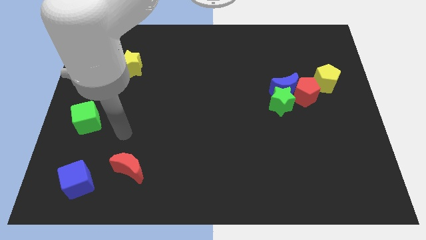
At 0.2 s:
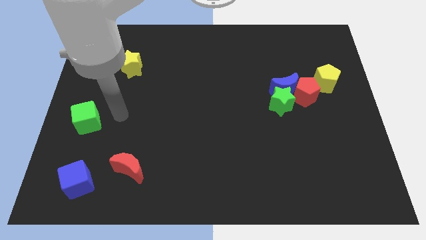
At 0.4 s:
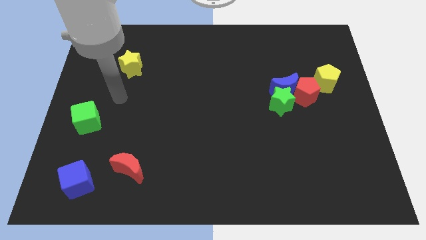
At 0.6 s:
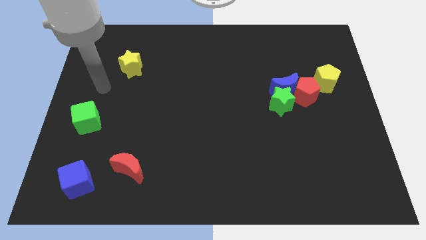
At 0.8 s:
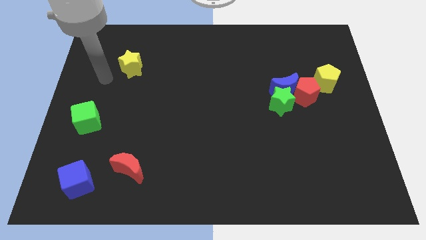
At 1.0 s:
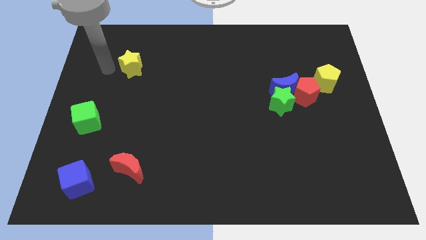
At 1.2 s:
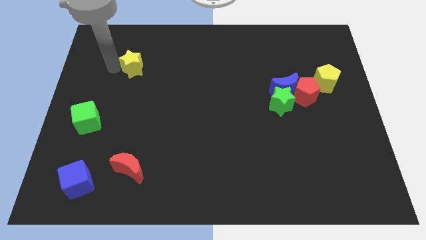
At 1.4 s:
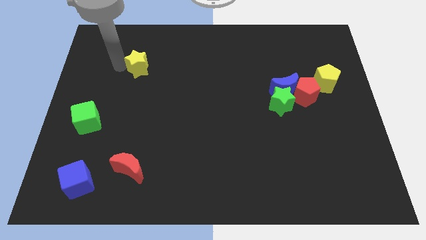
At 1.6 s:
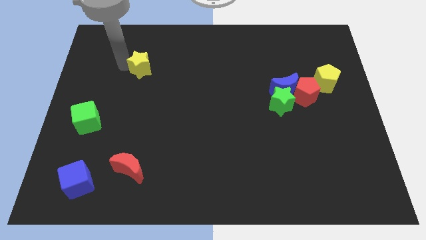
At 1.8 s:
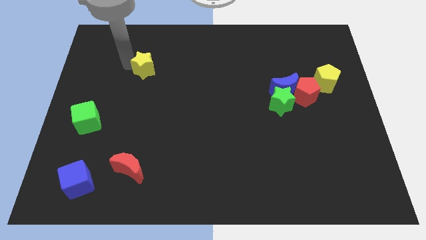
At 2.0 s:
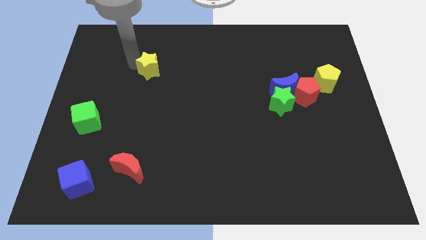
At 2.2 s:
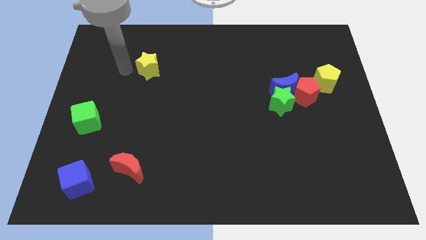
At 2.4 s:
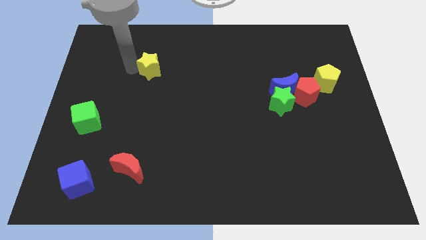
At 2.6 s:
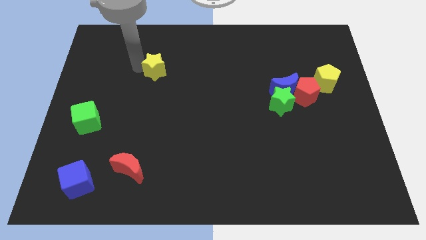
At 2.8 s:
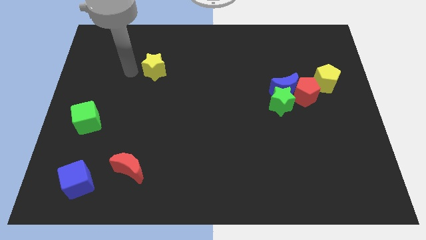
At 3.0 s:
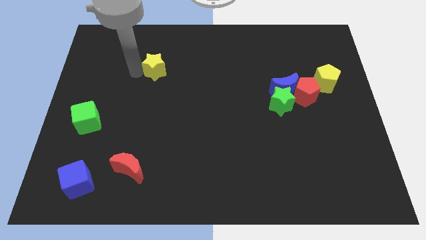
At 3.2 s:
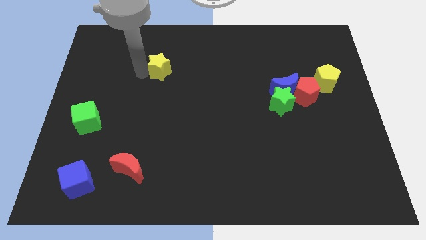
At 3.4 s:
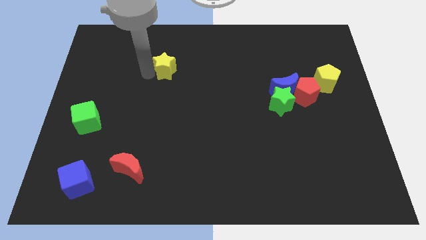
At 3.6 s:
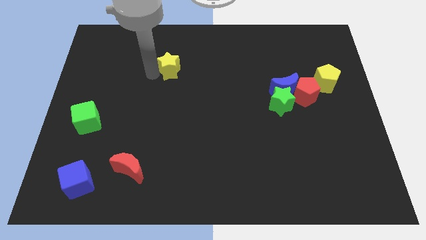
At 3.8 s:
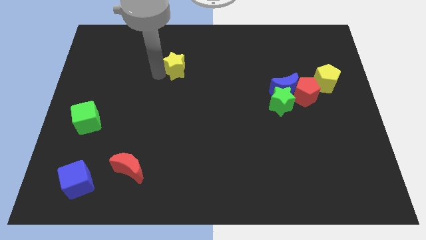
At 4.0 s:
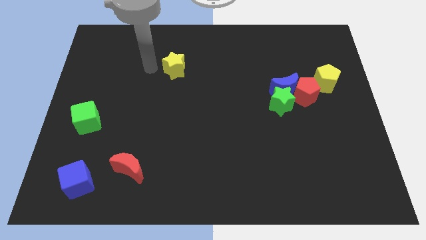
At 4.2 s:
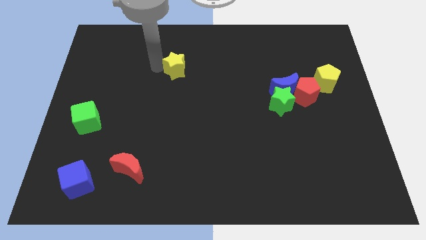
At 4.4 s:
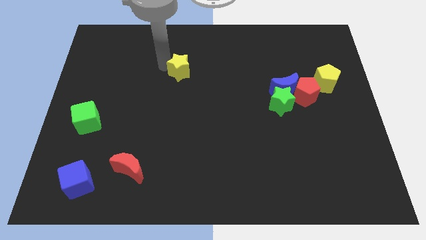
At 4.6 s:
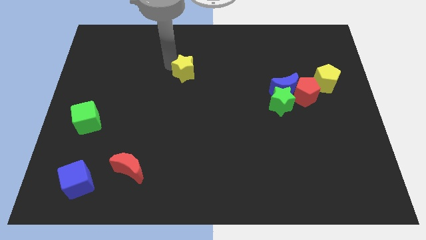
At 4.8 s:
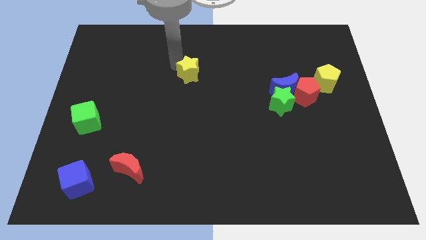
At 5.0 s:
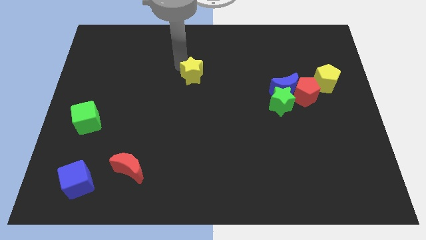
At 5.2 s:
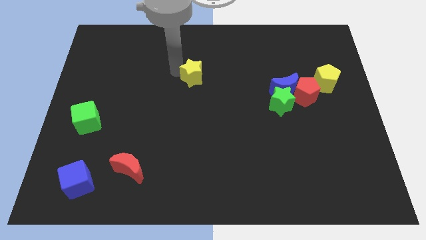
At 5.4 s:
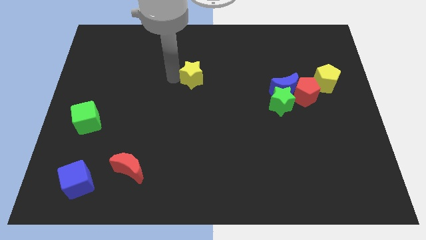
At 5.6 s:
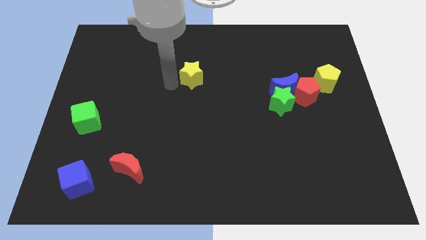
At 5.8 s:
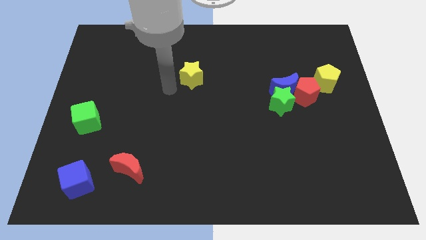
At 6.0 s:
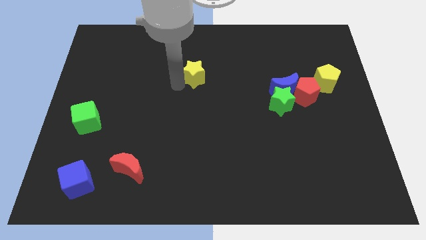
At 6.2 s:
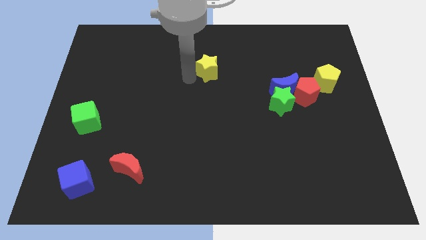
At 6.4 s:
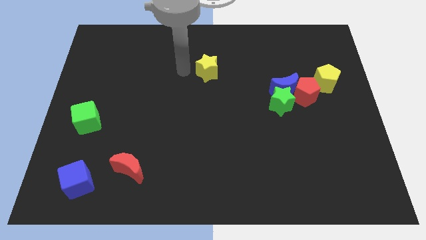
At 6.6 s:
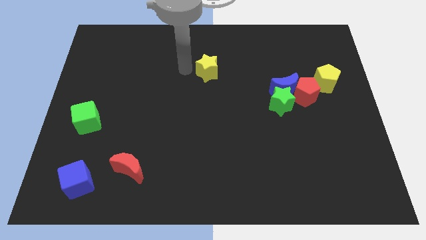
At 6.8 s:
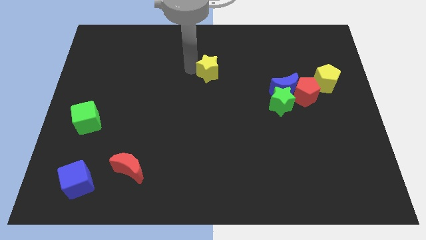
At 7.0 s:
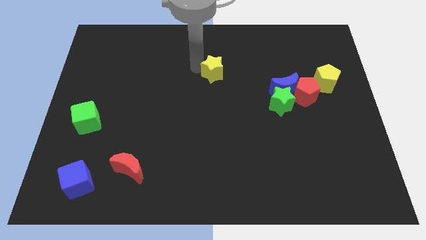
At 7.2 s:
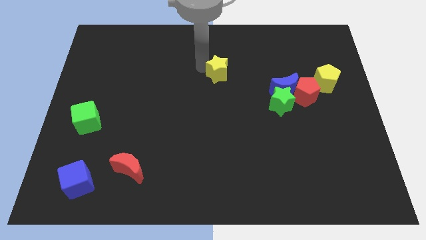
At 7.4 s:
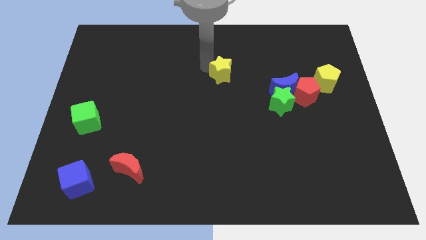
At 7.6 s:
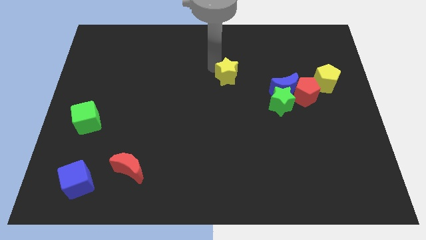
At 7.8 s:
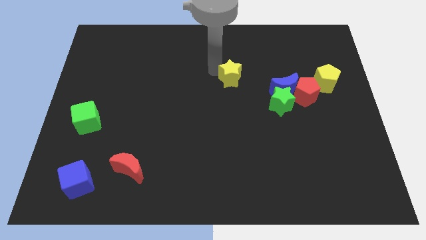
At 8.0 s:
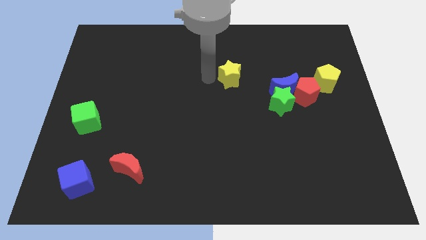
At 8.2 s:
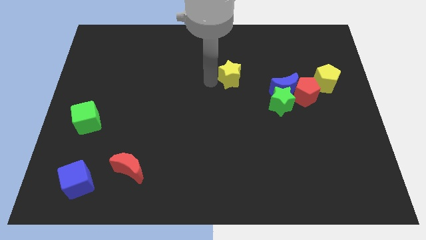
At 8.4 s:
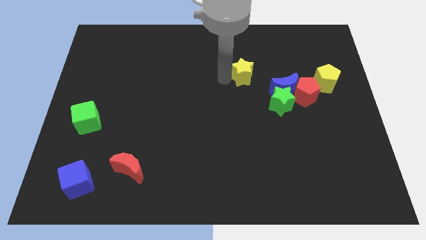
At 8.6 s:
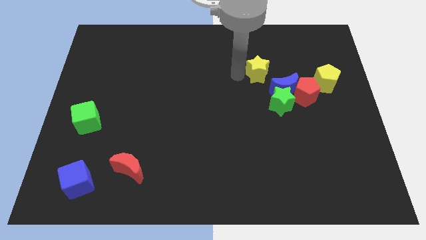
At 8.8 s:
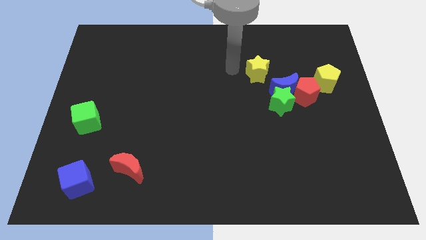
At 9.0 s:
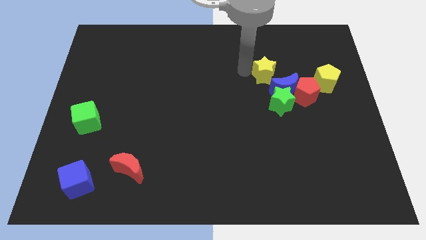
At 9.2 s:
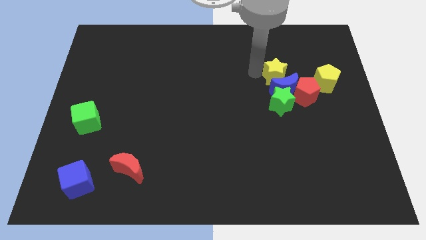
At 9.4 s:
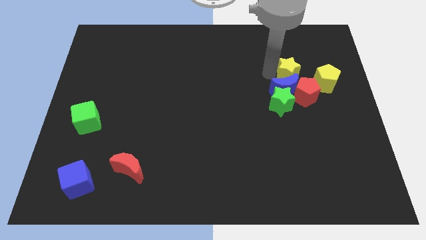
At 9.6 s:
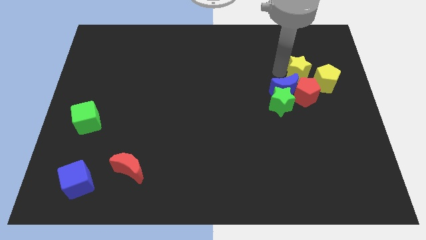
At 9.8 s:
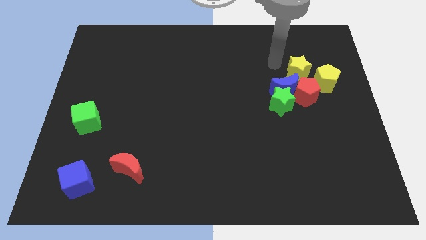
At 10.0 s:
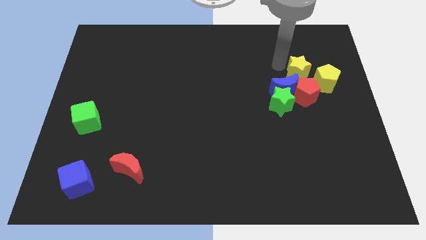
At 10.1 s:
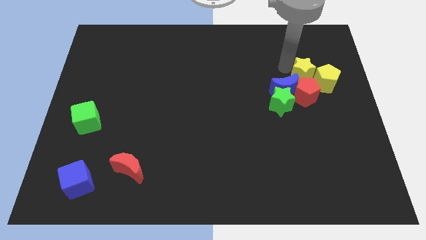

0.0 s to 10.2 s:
slide the yellow star towards the yellow pentagon
